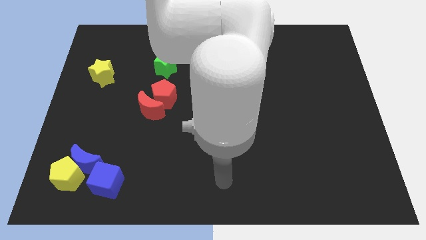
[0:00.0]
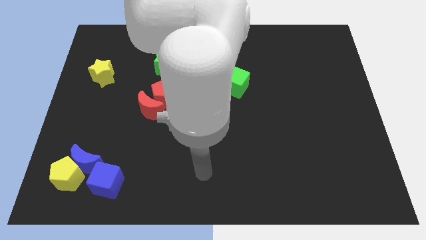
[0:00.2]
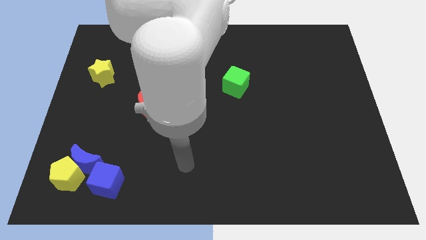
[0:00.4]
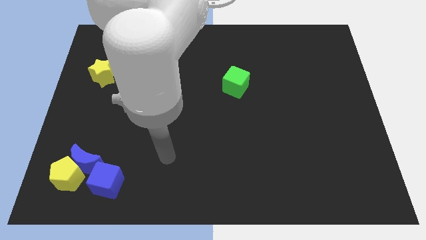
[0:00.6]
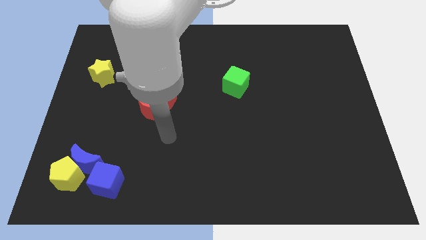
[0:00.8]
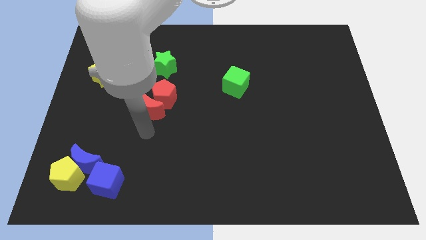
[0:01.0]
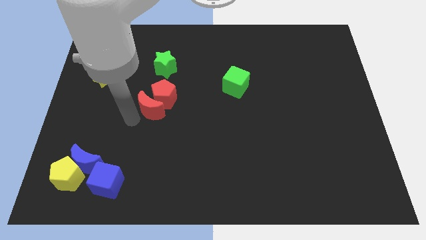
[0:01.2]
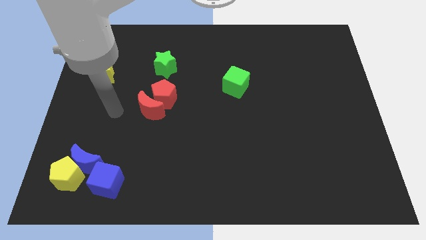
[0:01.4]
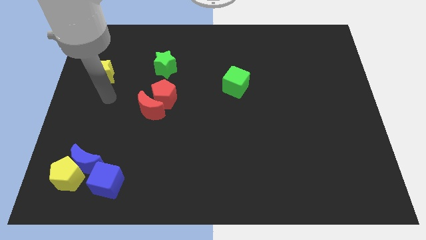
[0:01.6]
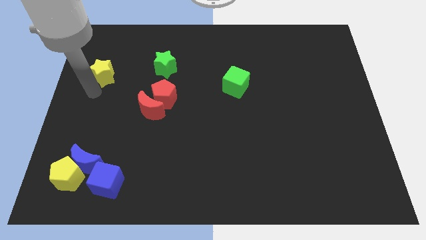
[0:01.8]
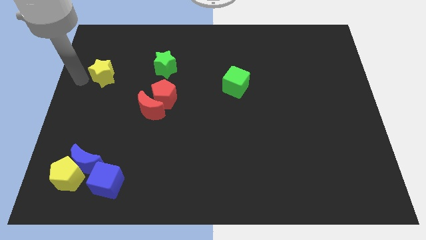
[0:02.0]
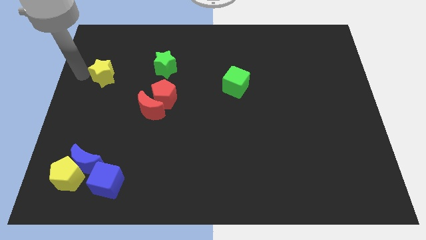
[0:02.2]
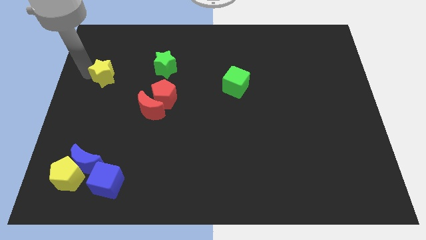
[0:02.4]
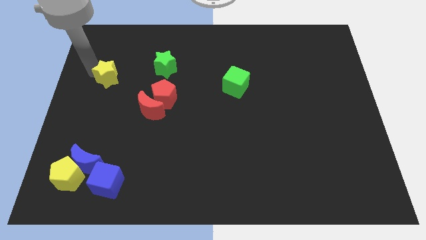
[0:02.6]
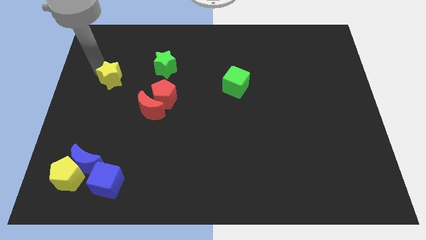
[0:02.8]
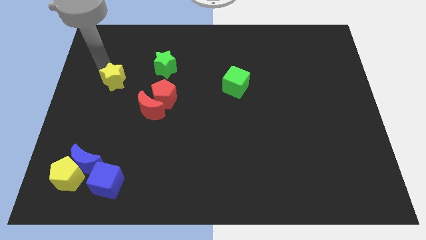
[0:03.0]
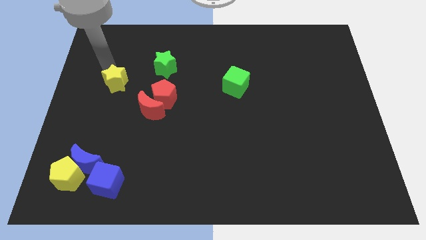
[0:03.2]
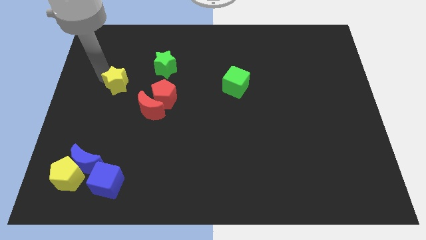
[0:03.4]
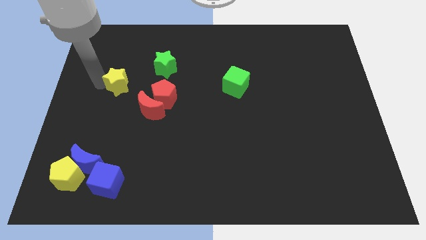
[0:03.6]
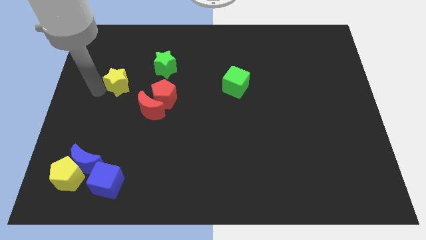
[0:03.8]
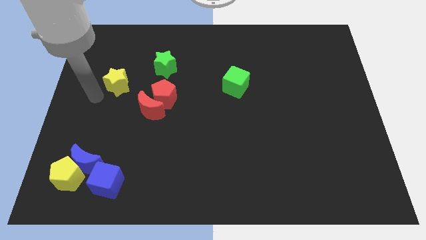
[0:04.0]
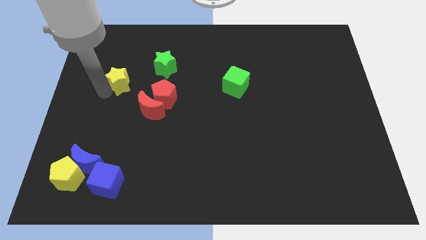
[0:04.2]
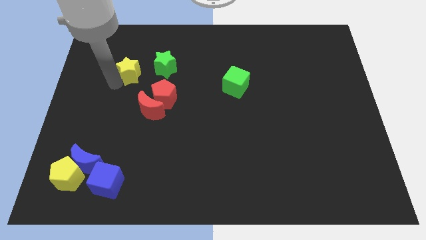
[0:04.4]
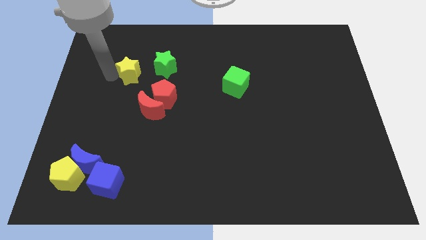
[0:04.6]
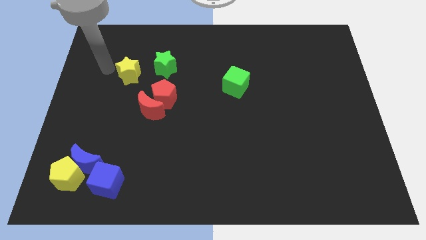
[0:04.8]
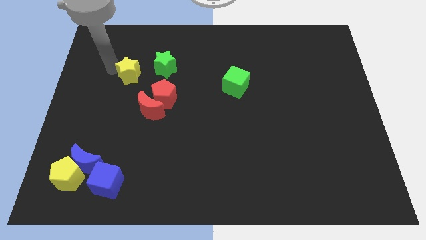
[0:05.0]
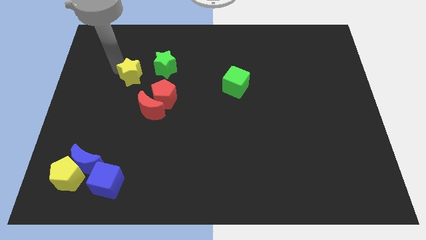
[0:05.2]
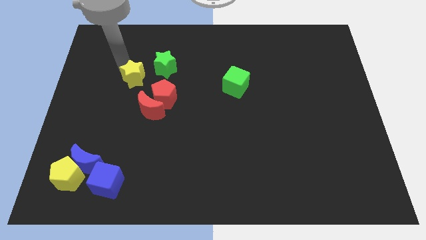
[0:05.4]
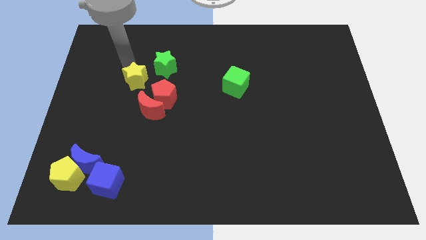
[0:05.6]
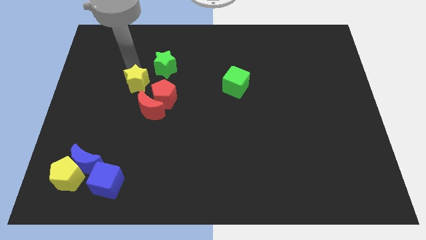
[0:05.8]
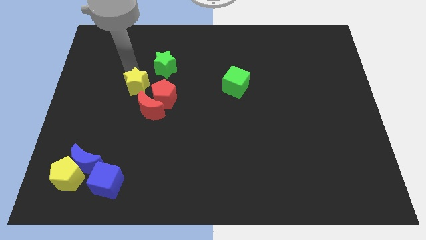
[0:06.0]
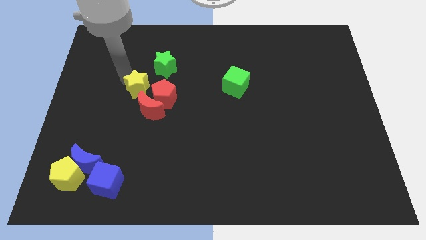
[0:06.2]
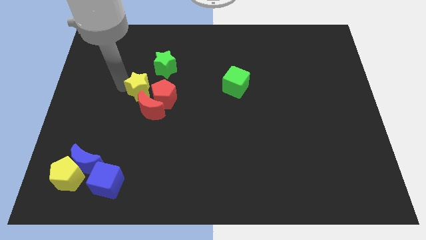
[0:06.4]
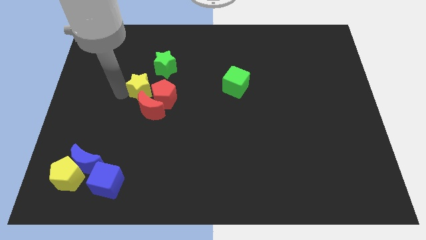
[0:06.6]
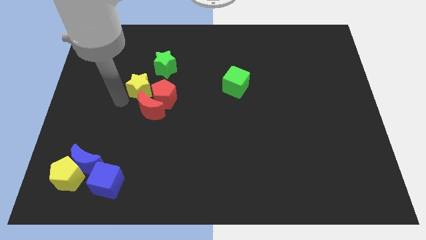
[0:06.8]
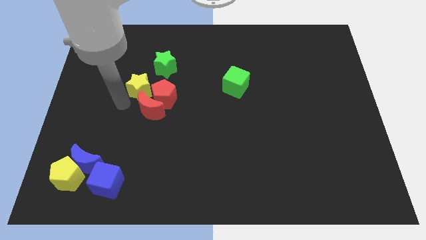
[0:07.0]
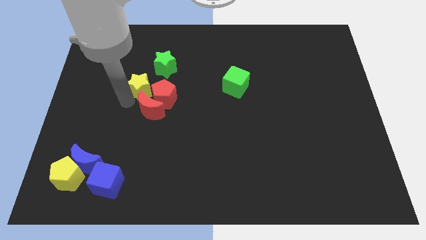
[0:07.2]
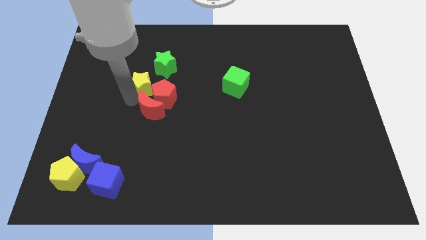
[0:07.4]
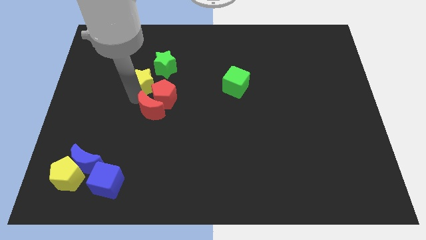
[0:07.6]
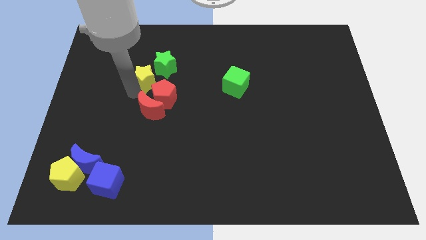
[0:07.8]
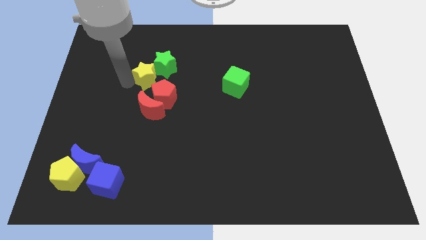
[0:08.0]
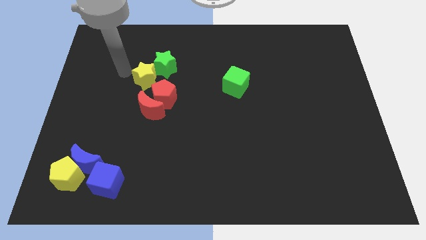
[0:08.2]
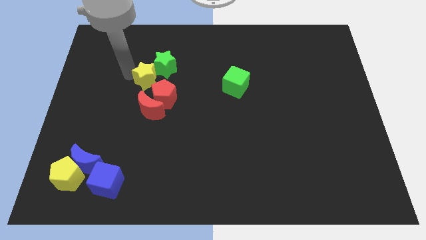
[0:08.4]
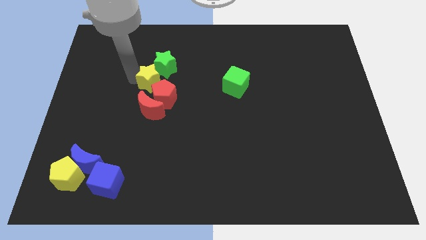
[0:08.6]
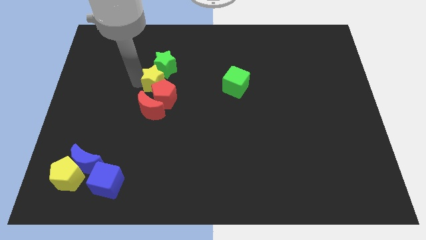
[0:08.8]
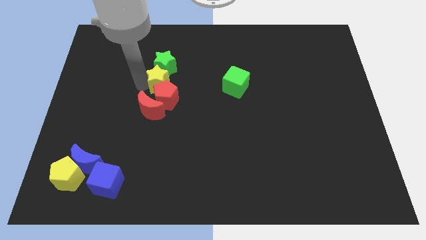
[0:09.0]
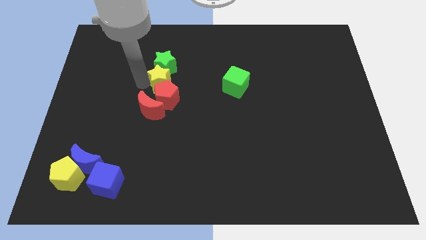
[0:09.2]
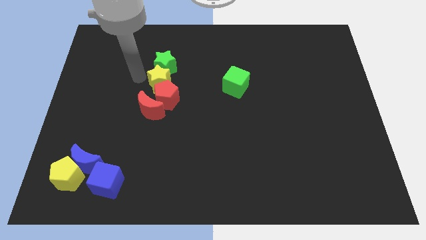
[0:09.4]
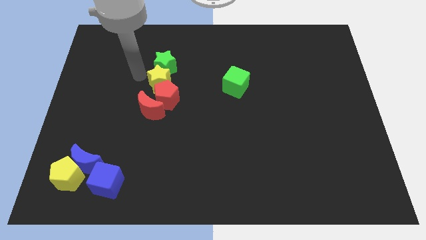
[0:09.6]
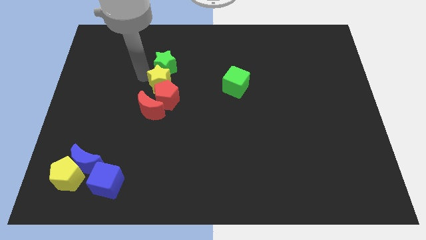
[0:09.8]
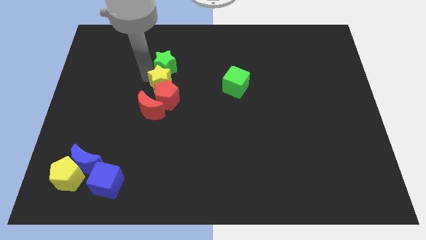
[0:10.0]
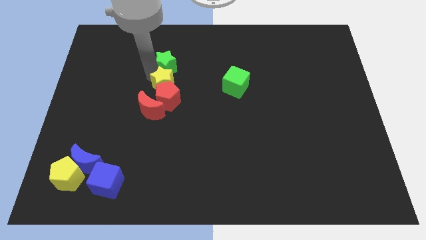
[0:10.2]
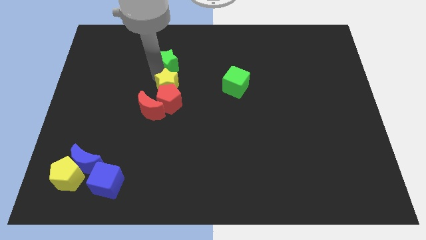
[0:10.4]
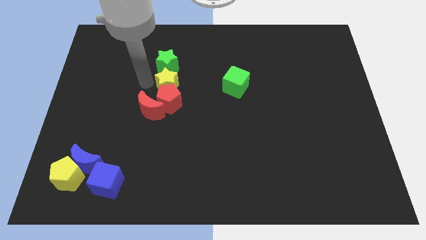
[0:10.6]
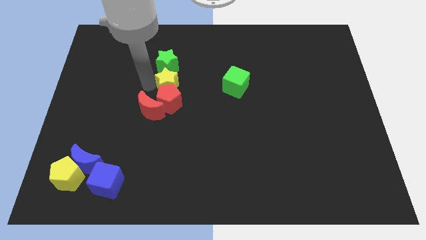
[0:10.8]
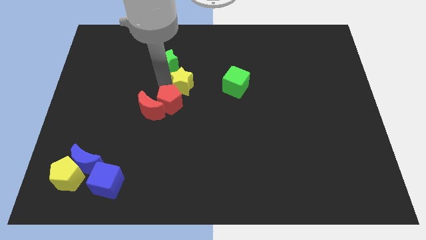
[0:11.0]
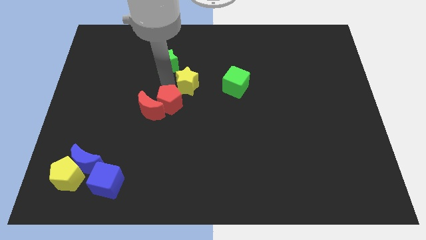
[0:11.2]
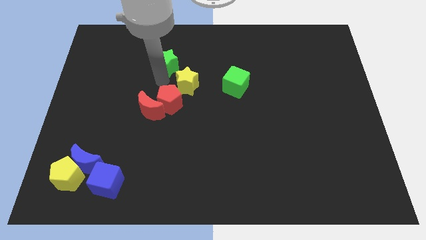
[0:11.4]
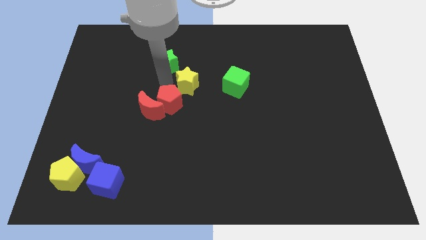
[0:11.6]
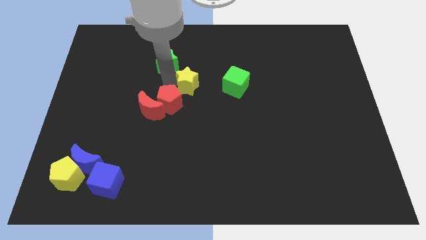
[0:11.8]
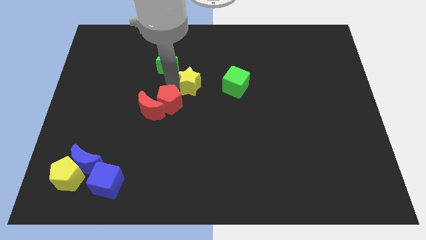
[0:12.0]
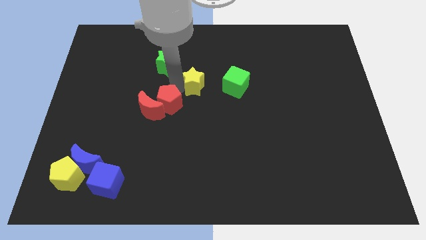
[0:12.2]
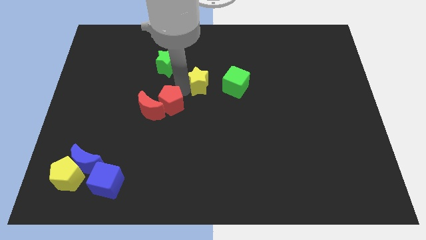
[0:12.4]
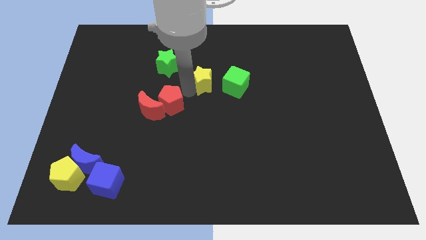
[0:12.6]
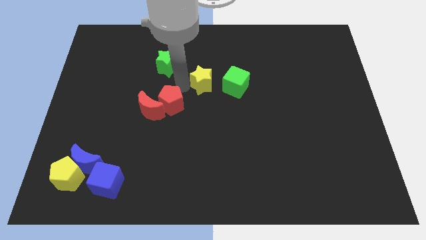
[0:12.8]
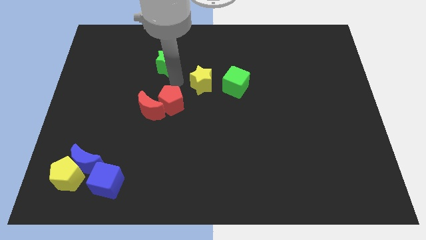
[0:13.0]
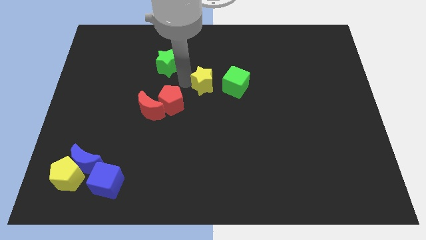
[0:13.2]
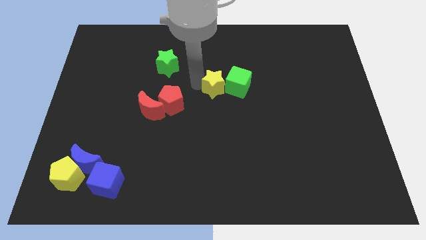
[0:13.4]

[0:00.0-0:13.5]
push the yellow star to the green cube

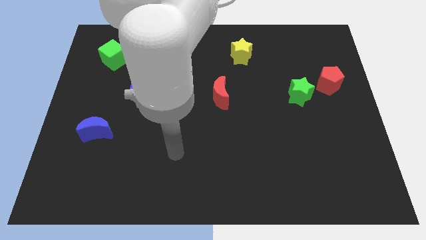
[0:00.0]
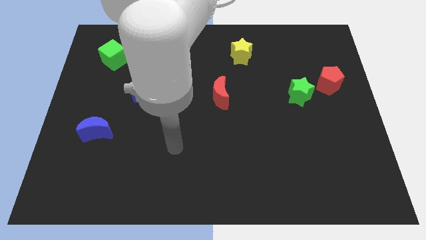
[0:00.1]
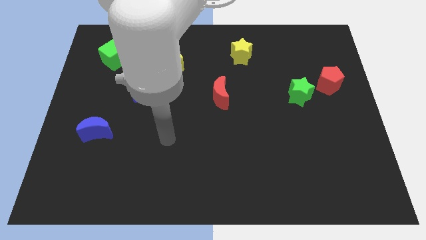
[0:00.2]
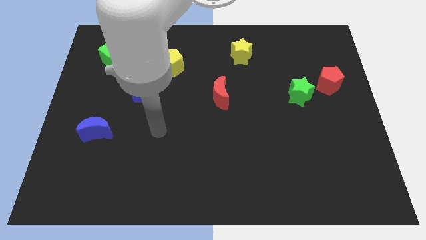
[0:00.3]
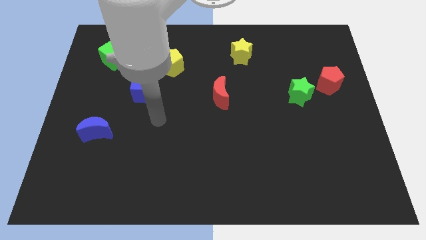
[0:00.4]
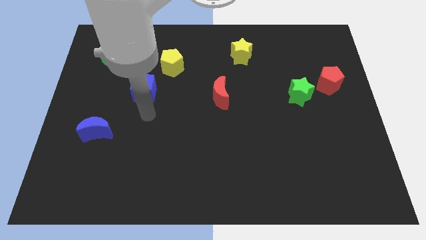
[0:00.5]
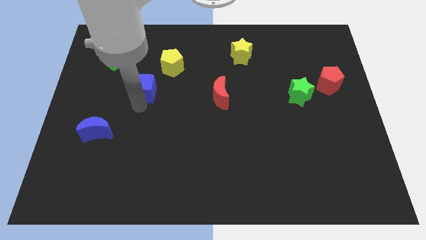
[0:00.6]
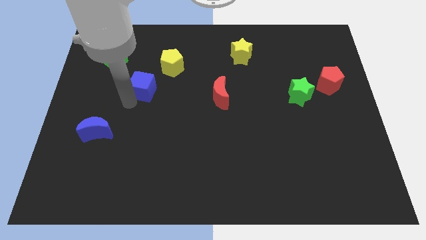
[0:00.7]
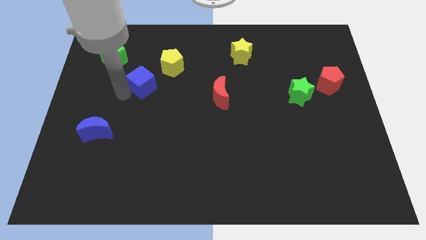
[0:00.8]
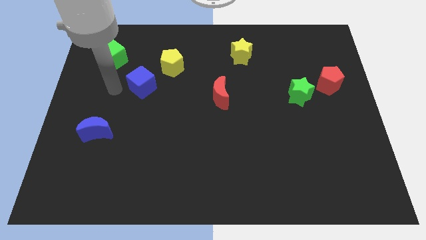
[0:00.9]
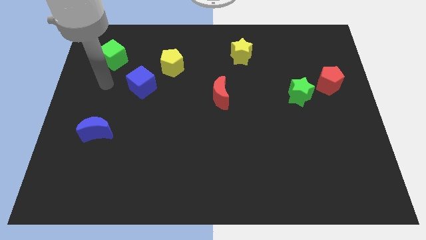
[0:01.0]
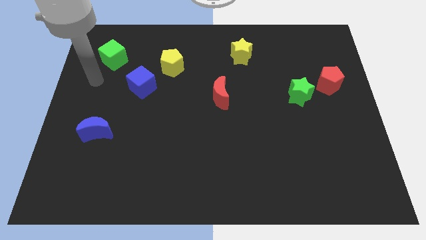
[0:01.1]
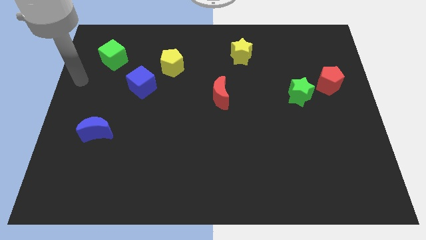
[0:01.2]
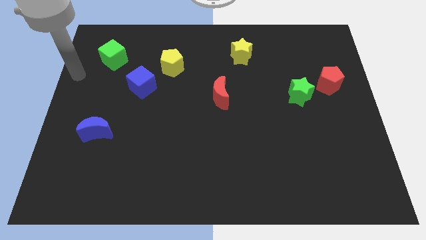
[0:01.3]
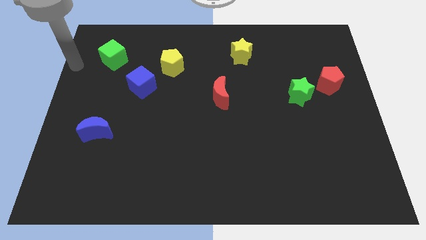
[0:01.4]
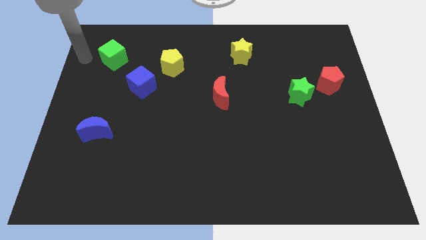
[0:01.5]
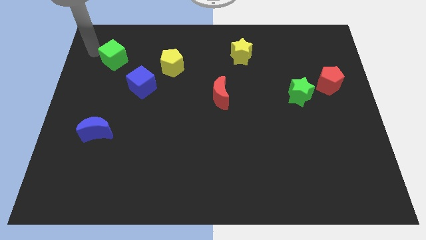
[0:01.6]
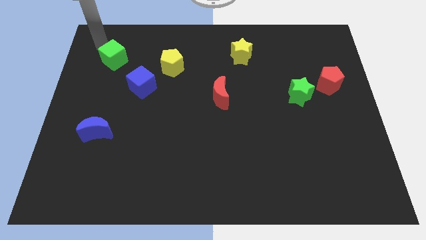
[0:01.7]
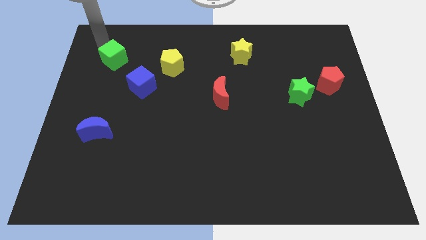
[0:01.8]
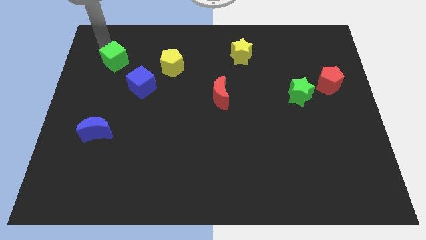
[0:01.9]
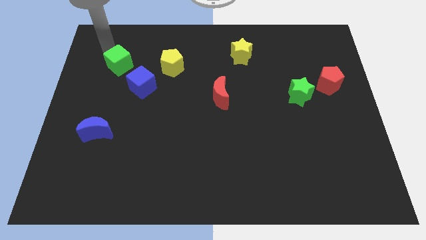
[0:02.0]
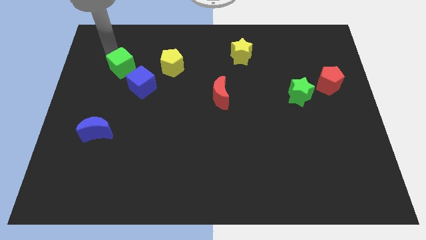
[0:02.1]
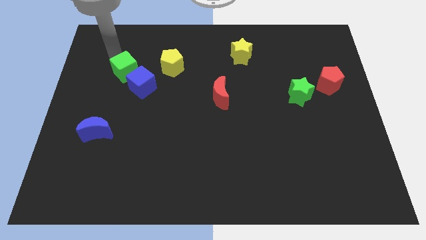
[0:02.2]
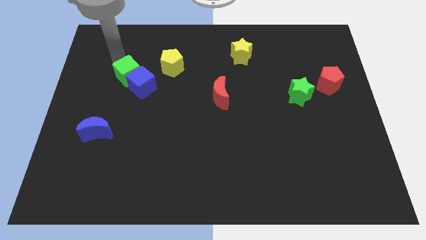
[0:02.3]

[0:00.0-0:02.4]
push the green cube towards the blue cube
